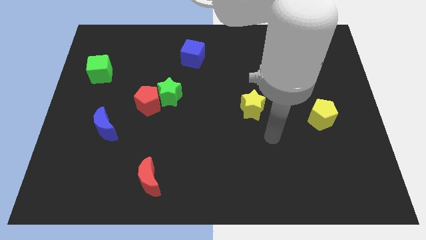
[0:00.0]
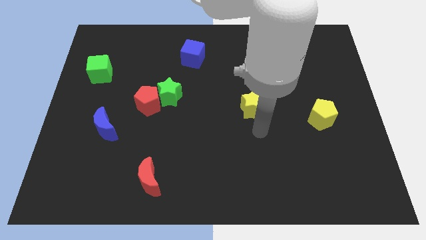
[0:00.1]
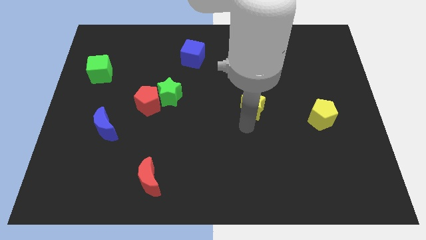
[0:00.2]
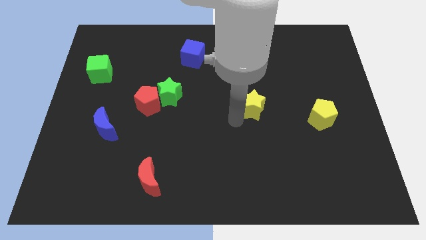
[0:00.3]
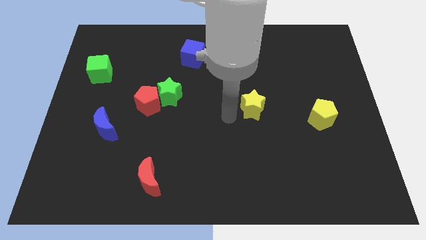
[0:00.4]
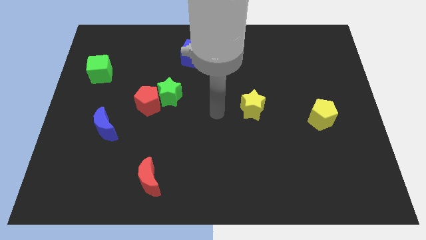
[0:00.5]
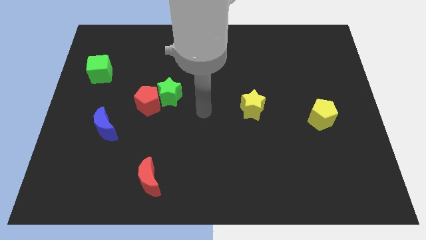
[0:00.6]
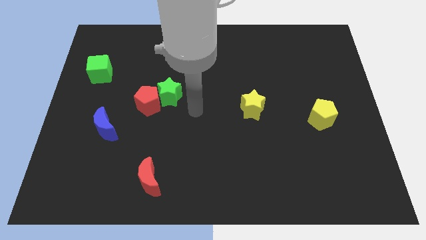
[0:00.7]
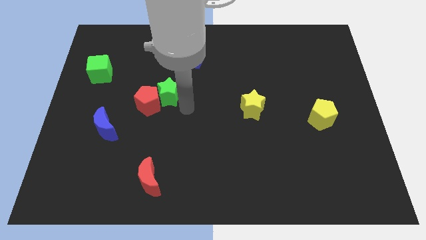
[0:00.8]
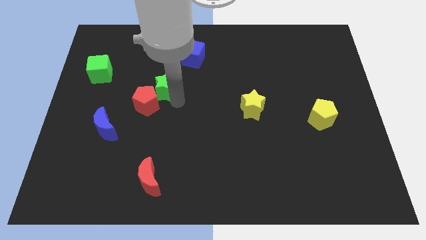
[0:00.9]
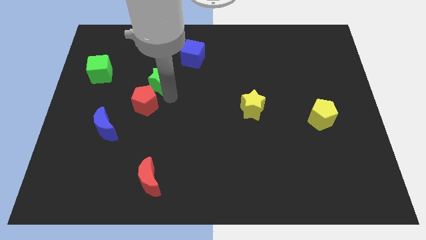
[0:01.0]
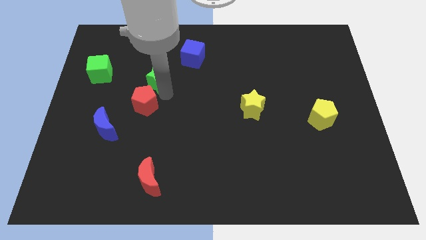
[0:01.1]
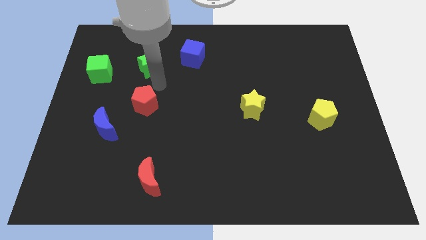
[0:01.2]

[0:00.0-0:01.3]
pull the red pentagon apart from the green star

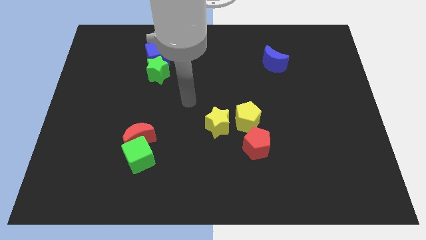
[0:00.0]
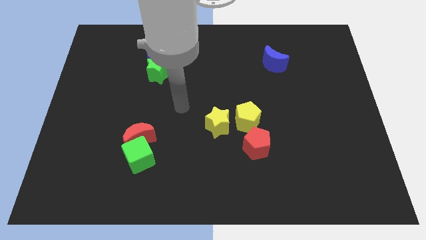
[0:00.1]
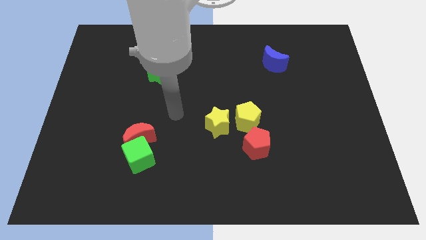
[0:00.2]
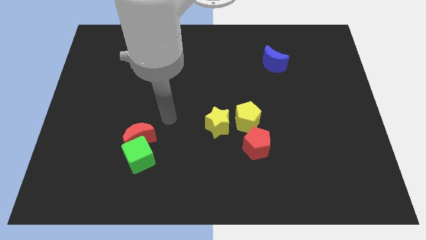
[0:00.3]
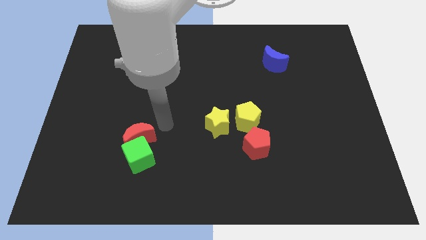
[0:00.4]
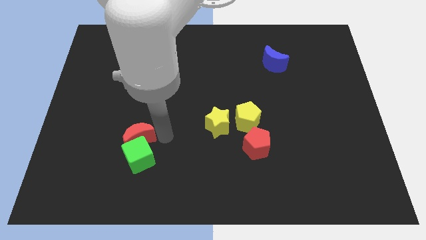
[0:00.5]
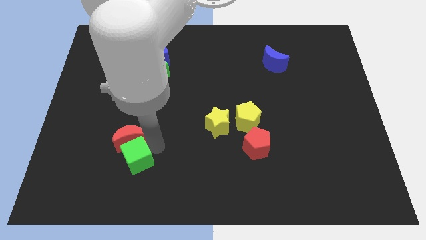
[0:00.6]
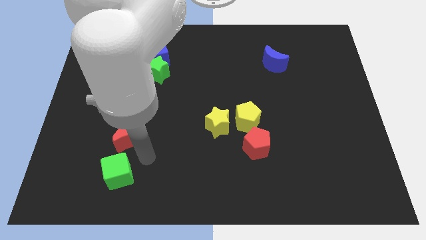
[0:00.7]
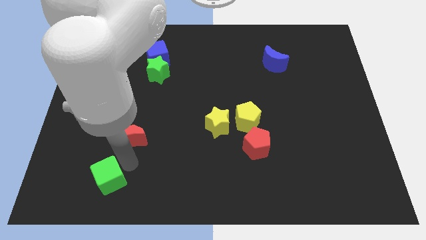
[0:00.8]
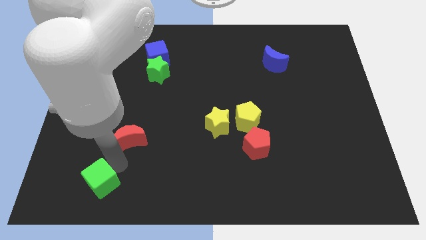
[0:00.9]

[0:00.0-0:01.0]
separate the red moon from the green cube

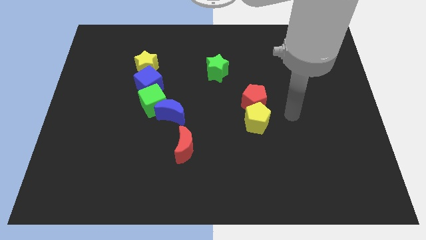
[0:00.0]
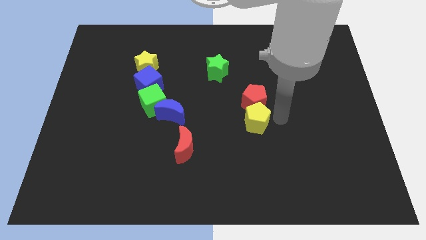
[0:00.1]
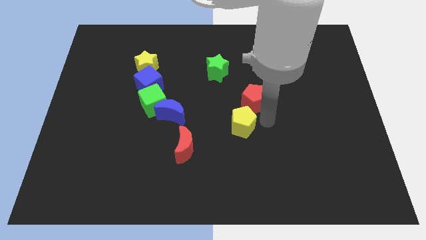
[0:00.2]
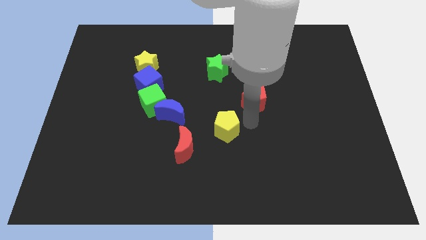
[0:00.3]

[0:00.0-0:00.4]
pull the red pentagon apart from the yellow pentagon

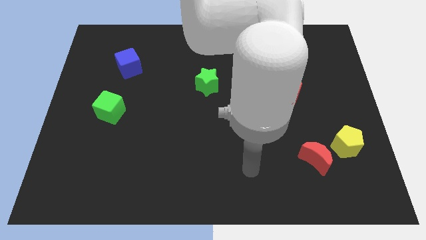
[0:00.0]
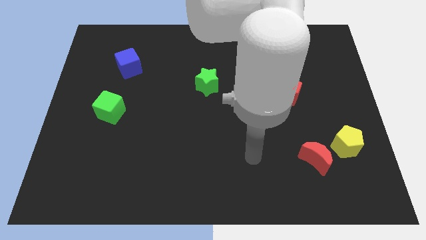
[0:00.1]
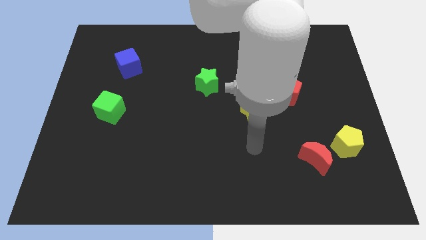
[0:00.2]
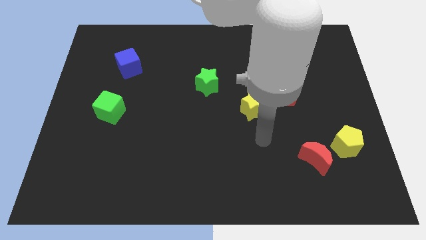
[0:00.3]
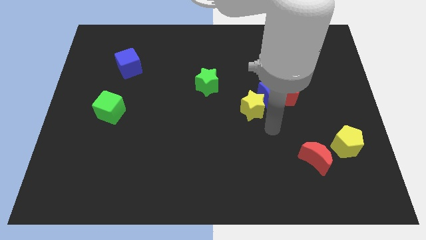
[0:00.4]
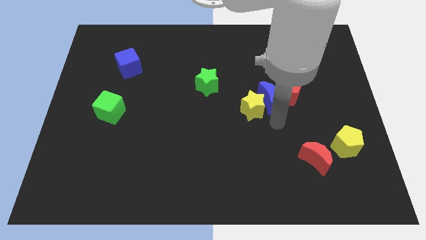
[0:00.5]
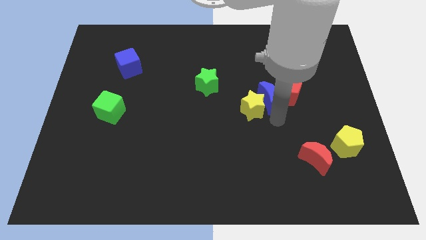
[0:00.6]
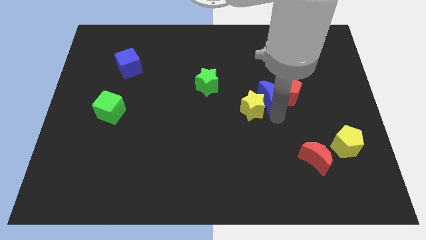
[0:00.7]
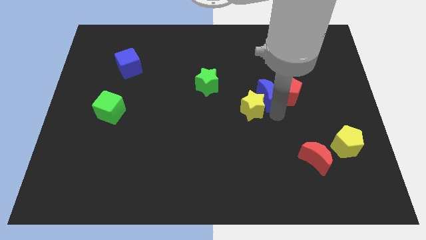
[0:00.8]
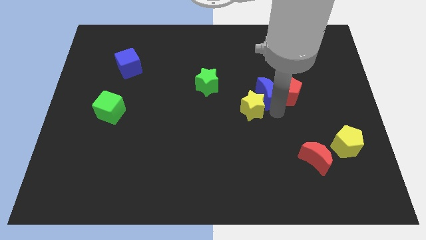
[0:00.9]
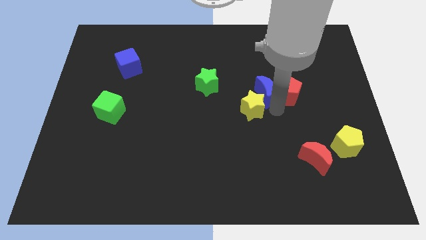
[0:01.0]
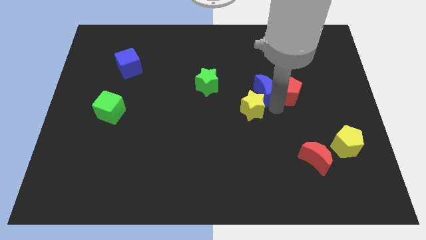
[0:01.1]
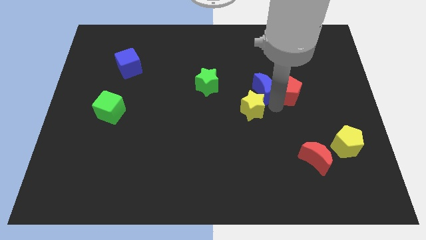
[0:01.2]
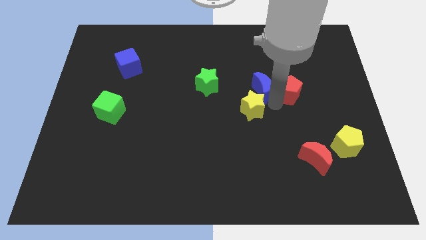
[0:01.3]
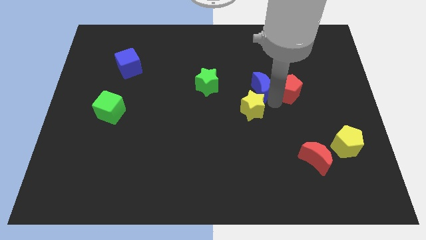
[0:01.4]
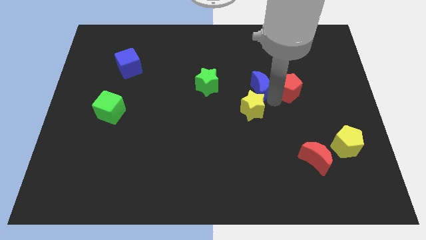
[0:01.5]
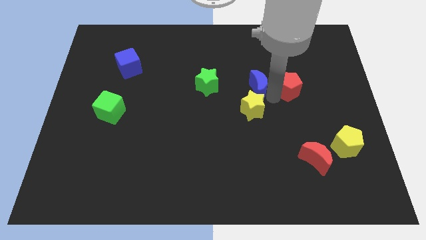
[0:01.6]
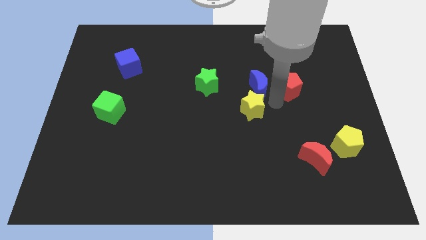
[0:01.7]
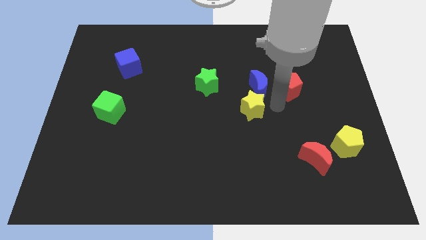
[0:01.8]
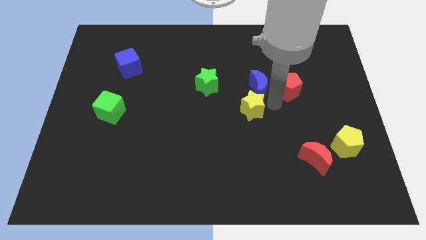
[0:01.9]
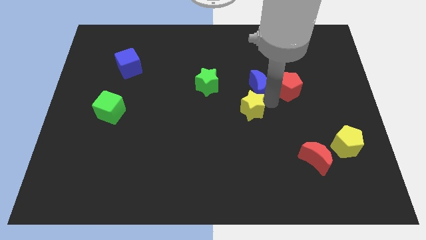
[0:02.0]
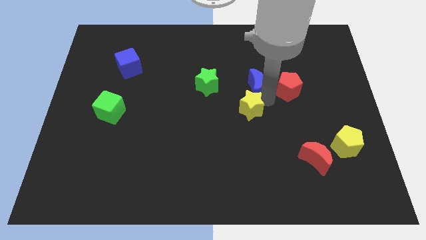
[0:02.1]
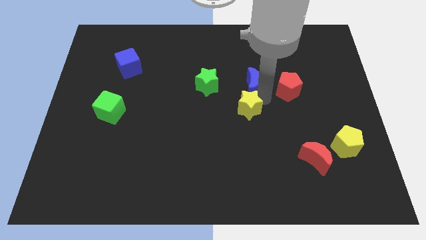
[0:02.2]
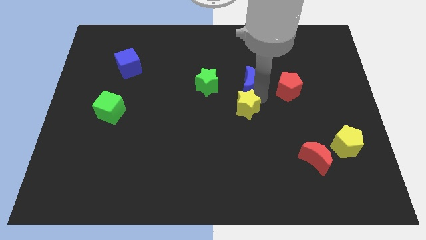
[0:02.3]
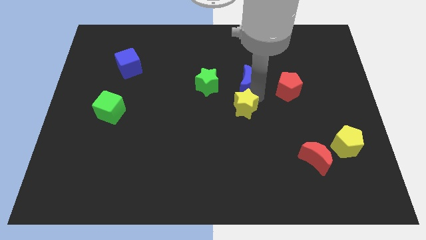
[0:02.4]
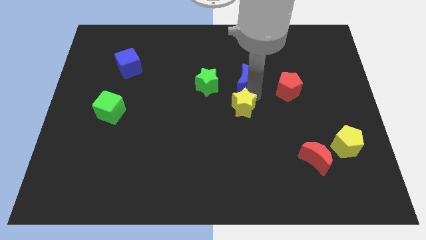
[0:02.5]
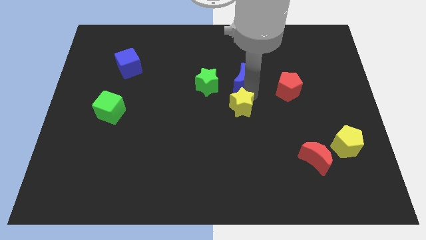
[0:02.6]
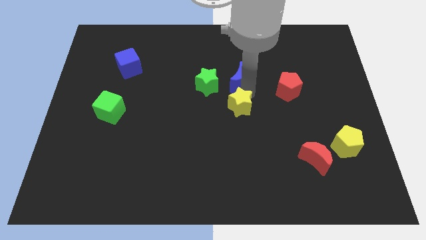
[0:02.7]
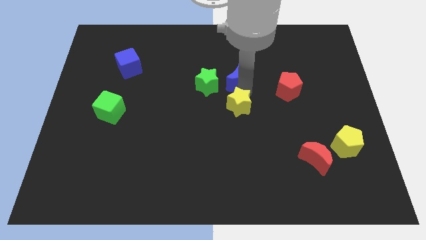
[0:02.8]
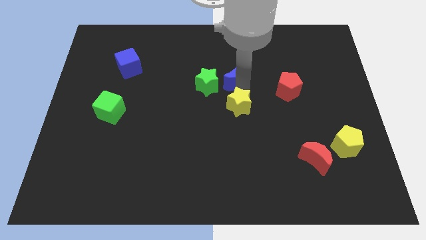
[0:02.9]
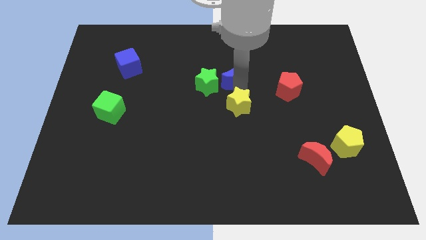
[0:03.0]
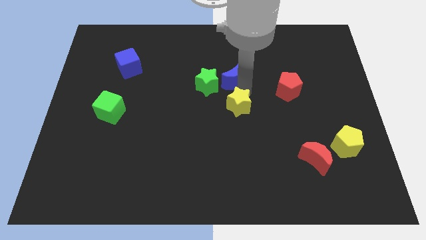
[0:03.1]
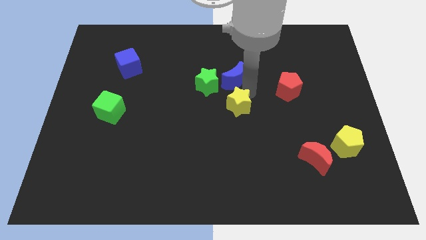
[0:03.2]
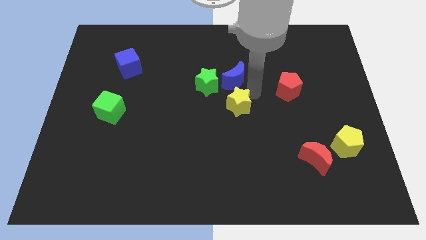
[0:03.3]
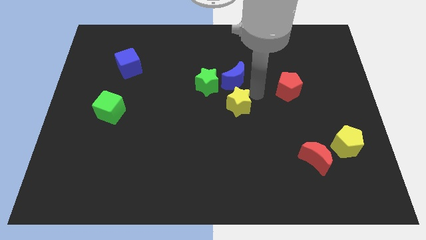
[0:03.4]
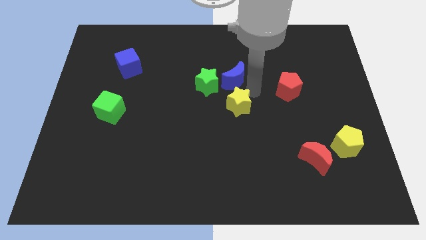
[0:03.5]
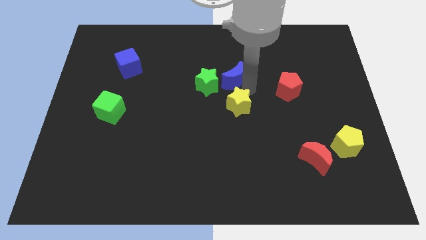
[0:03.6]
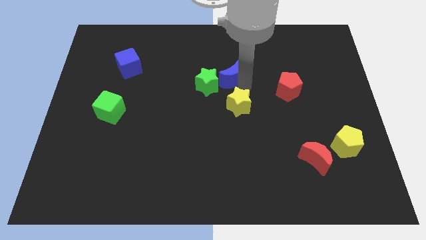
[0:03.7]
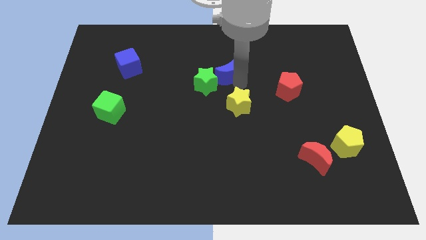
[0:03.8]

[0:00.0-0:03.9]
separate the blue moon from the red pentagon and yellow star

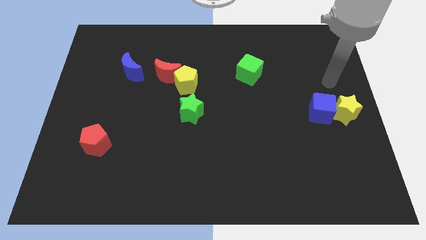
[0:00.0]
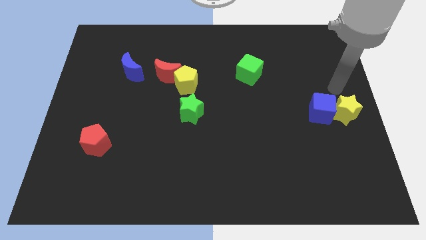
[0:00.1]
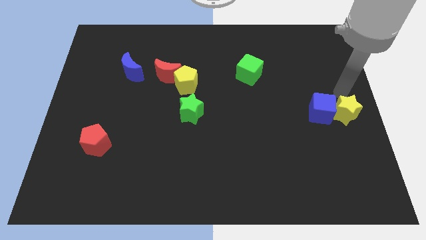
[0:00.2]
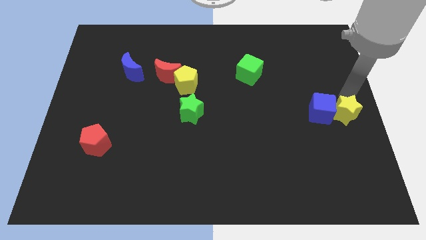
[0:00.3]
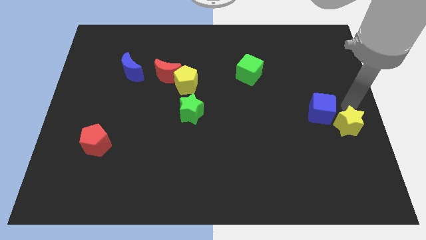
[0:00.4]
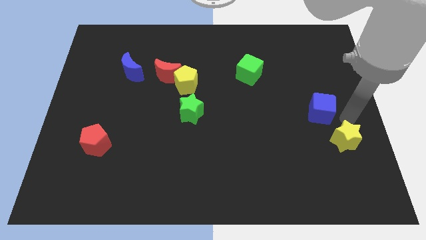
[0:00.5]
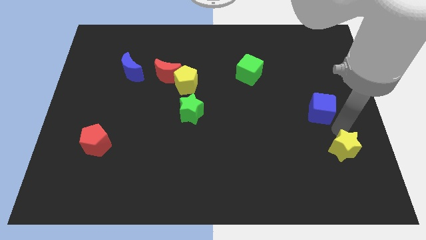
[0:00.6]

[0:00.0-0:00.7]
move the blue cube away from the yellow star

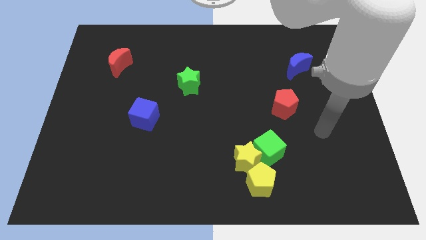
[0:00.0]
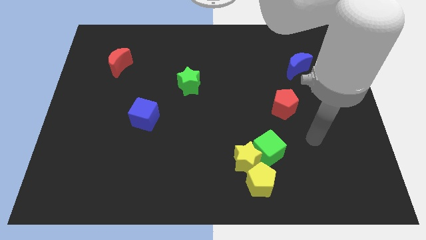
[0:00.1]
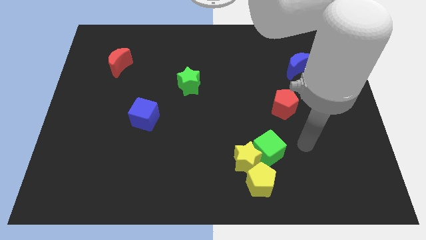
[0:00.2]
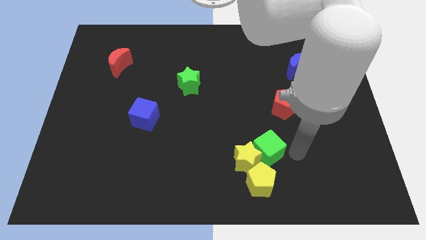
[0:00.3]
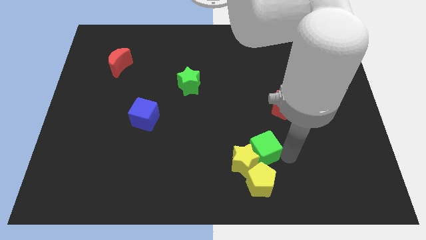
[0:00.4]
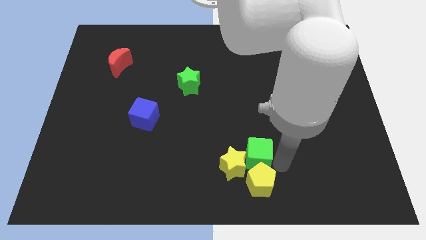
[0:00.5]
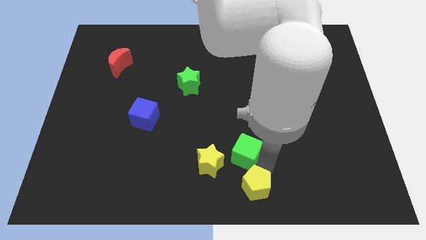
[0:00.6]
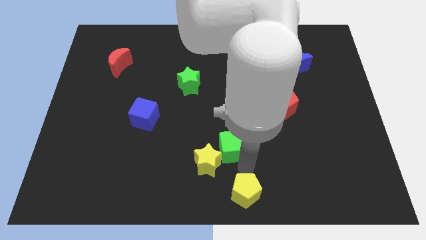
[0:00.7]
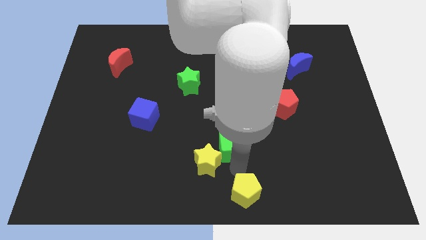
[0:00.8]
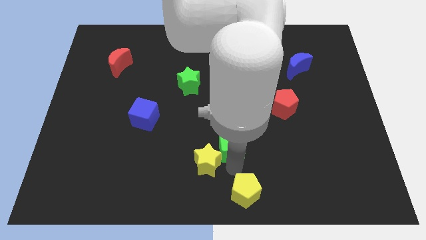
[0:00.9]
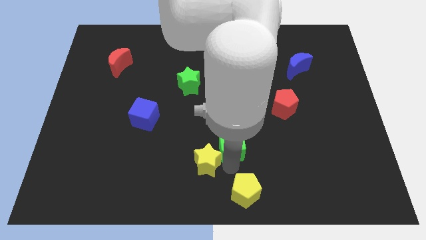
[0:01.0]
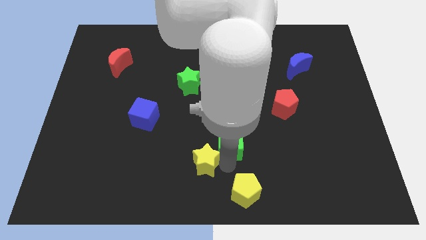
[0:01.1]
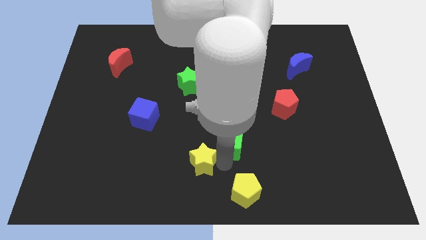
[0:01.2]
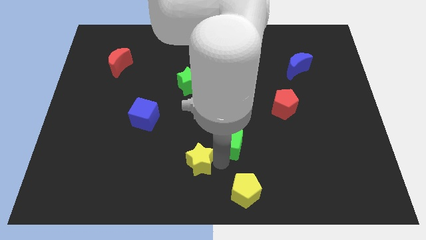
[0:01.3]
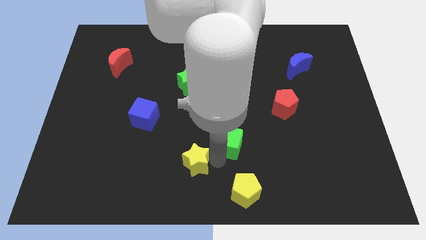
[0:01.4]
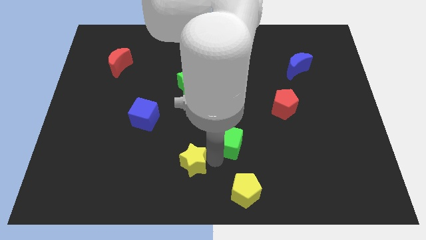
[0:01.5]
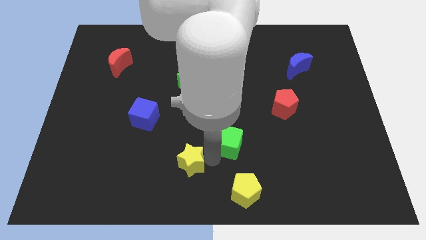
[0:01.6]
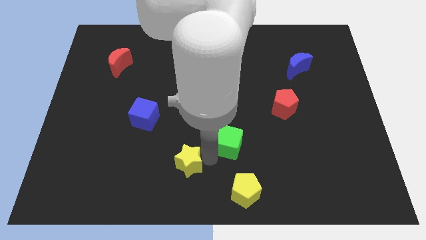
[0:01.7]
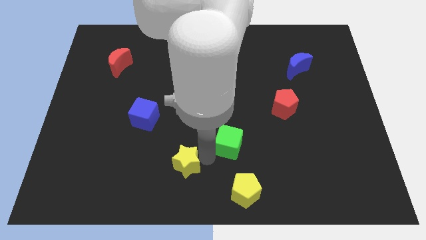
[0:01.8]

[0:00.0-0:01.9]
separate the yellow star from the green cube and yellow pentagon
